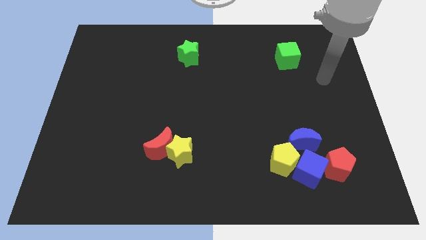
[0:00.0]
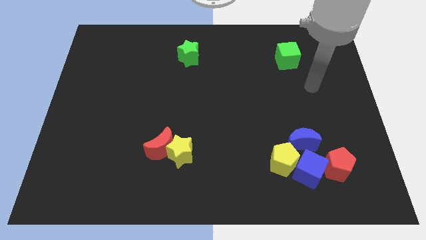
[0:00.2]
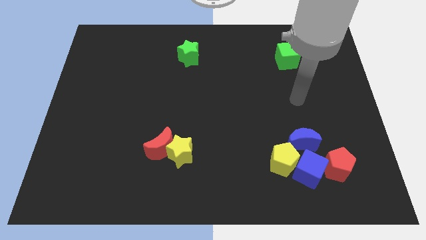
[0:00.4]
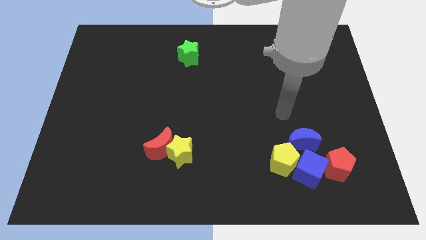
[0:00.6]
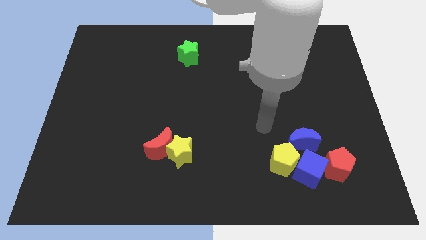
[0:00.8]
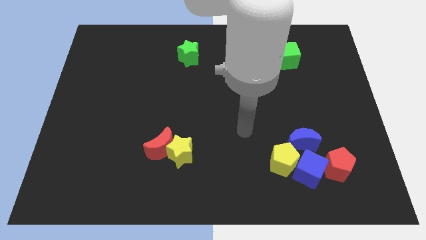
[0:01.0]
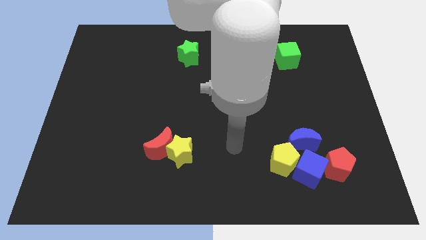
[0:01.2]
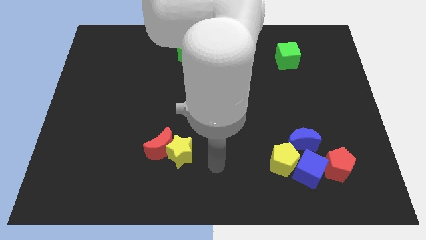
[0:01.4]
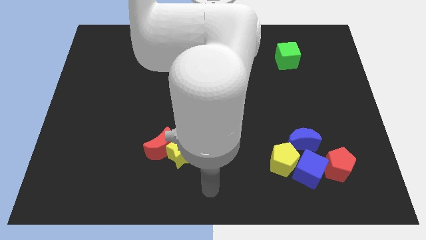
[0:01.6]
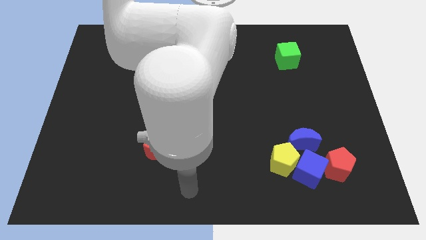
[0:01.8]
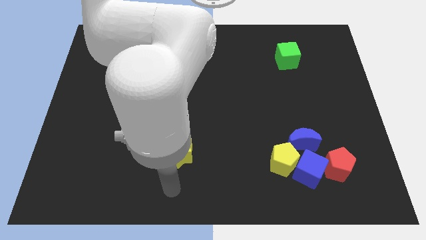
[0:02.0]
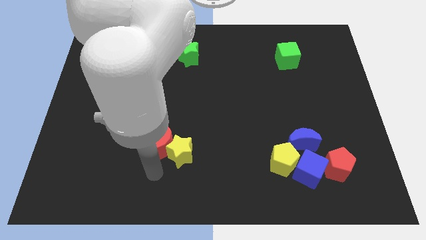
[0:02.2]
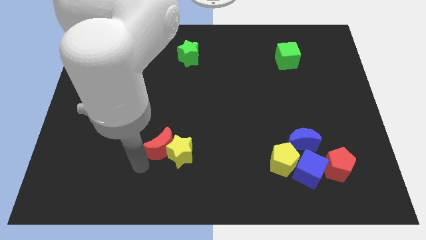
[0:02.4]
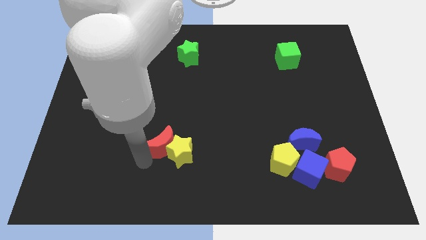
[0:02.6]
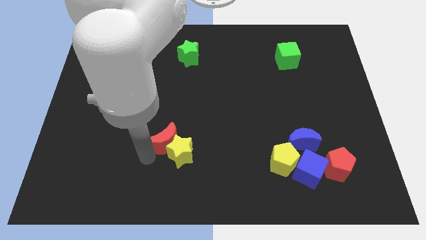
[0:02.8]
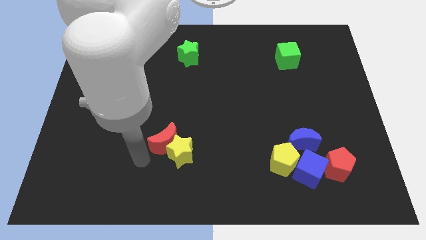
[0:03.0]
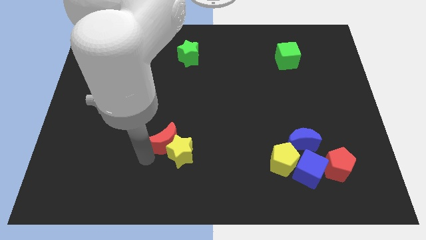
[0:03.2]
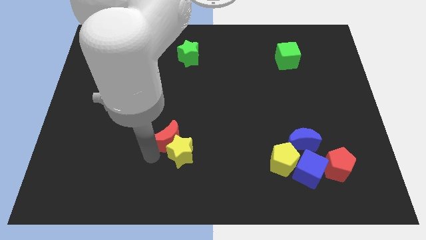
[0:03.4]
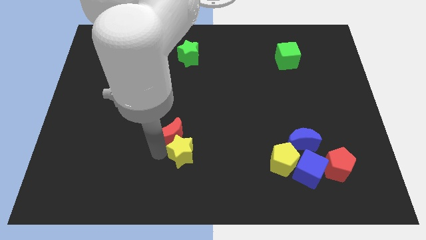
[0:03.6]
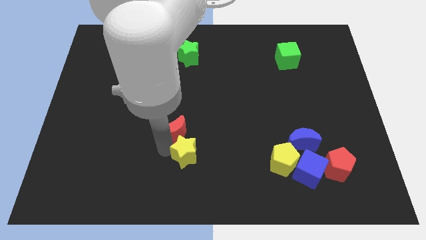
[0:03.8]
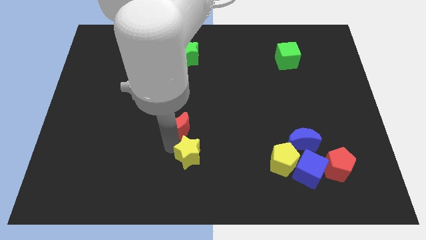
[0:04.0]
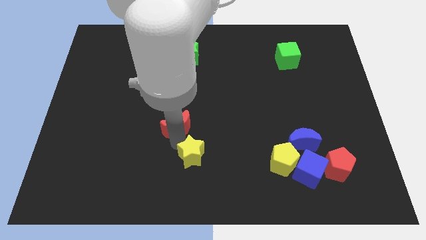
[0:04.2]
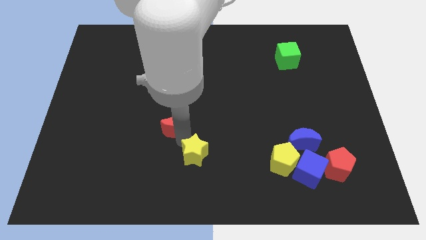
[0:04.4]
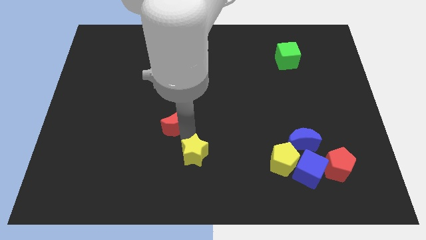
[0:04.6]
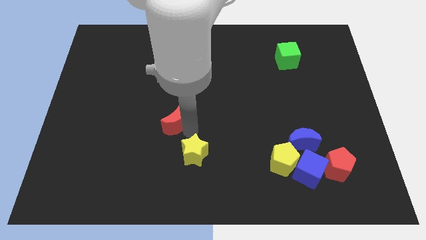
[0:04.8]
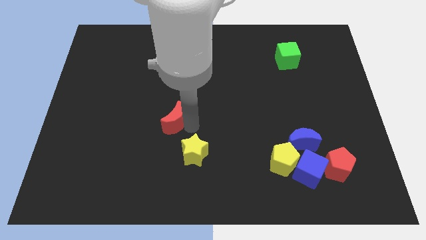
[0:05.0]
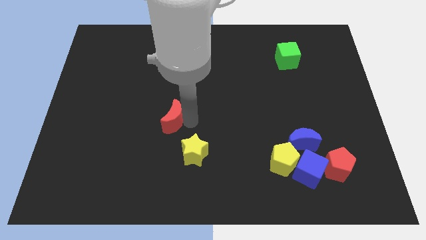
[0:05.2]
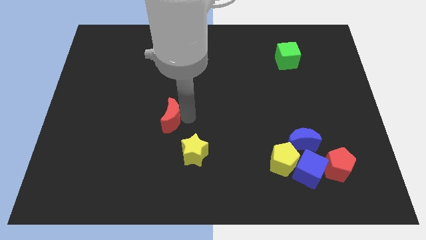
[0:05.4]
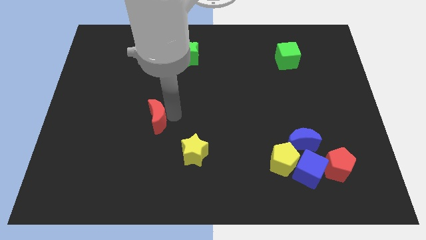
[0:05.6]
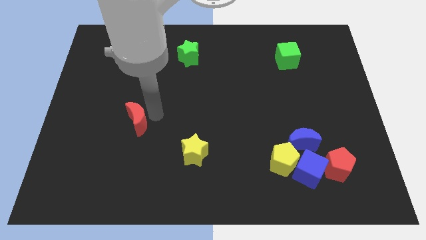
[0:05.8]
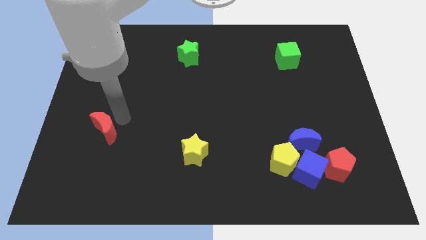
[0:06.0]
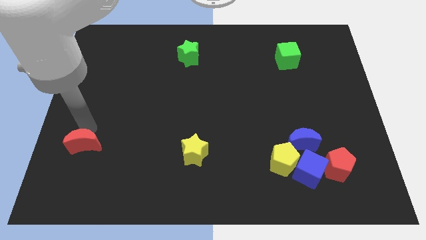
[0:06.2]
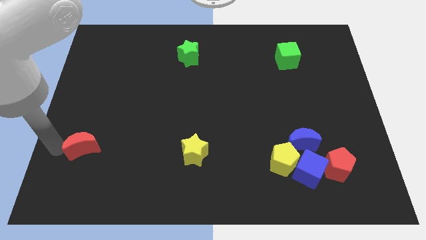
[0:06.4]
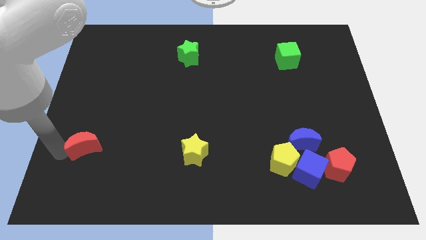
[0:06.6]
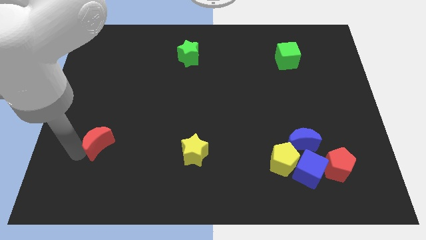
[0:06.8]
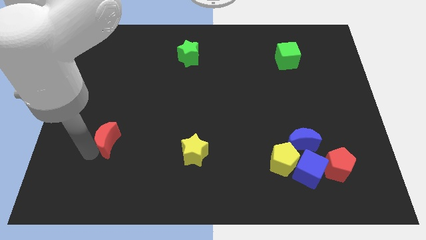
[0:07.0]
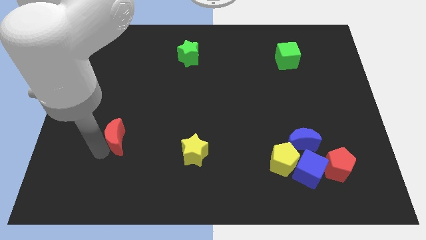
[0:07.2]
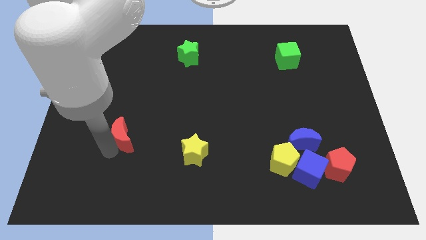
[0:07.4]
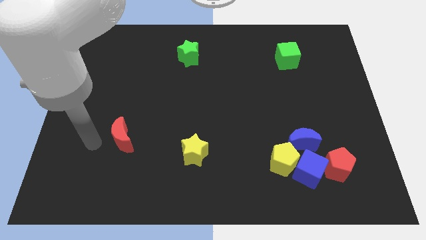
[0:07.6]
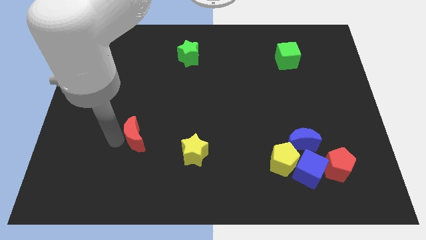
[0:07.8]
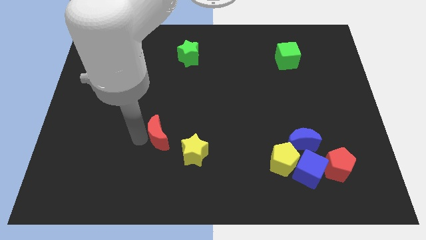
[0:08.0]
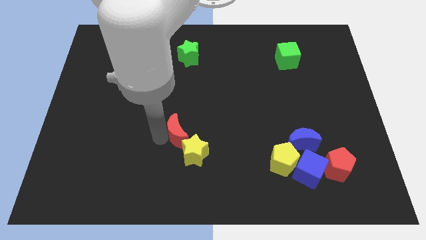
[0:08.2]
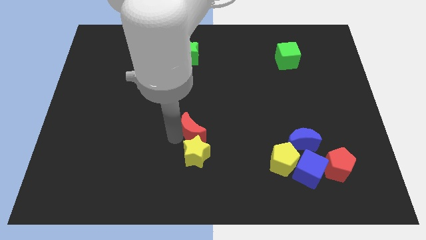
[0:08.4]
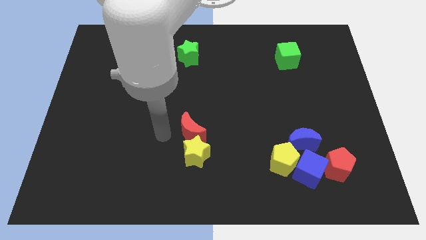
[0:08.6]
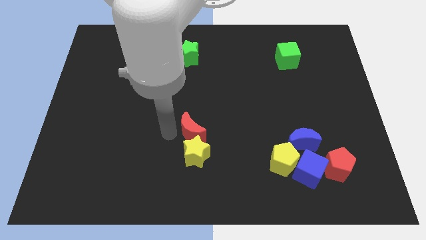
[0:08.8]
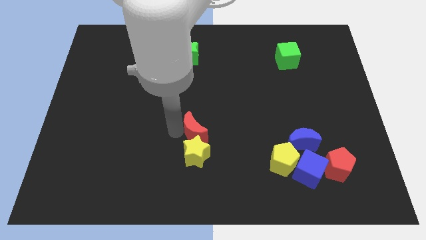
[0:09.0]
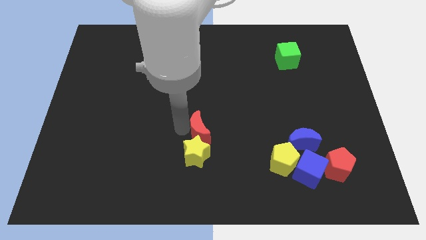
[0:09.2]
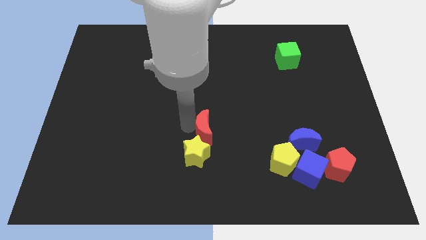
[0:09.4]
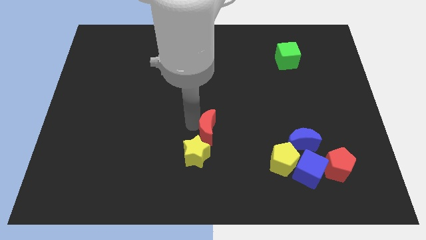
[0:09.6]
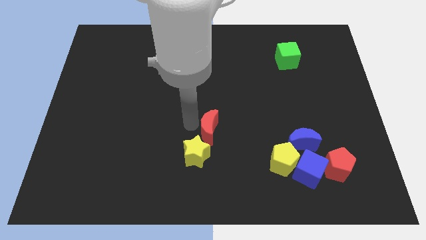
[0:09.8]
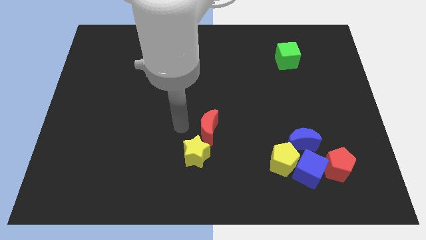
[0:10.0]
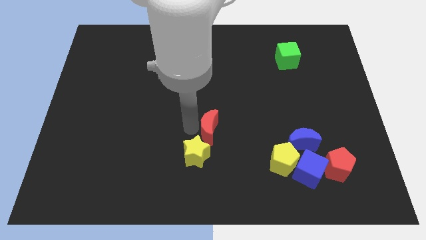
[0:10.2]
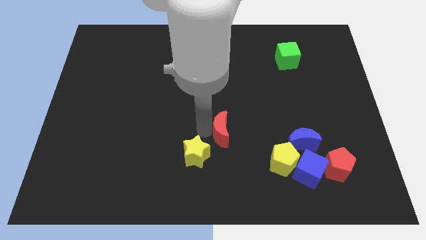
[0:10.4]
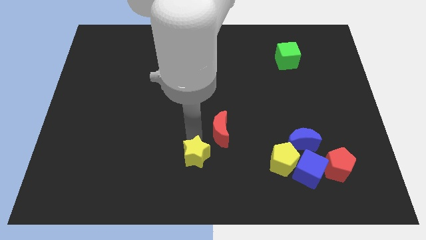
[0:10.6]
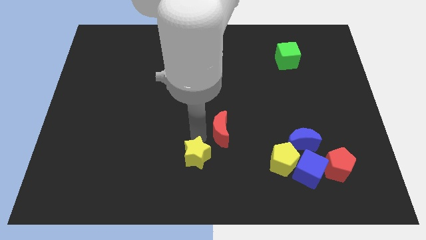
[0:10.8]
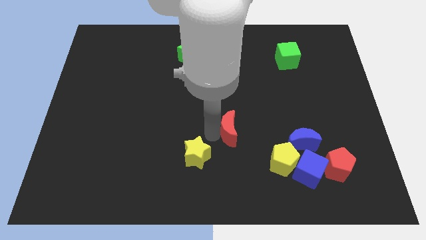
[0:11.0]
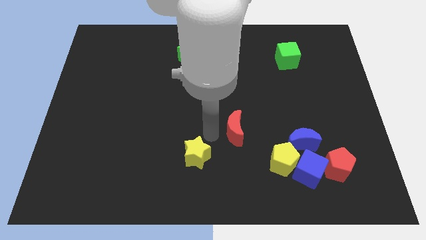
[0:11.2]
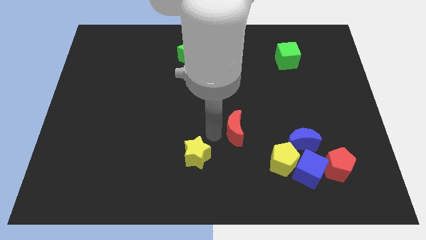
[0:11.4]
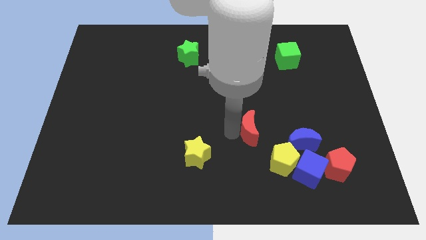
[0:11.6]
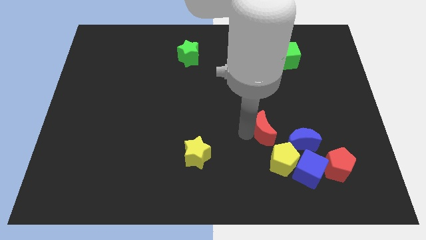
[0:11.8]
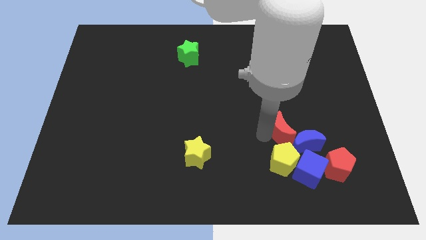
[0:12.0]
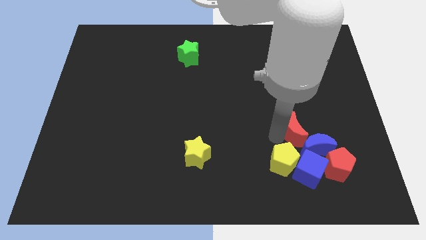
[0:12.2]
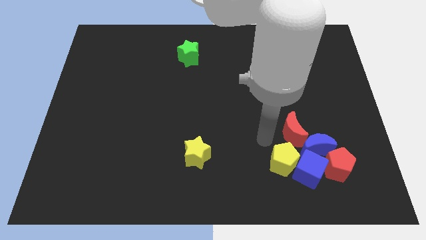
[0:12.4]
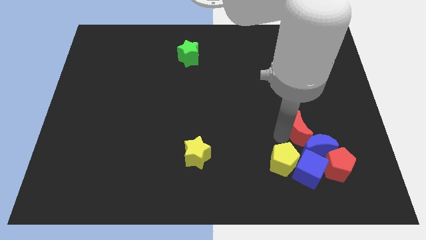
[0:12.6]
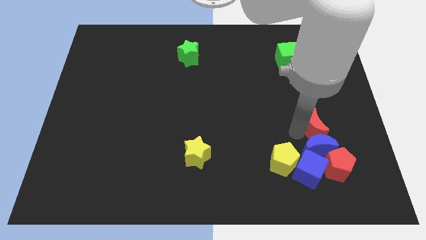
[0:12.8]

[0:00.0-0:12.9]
slide the red moon above the red pentagon

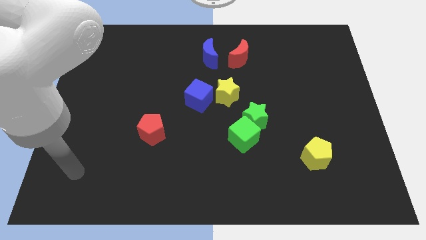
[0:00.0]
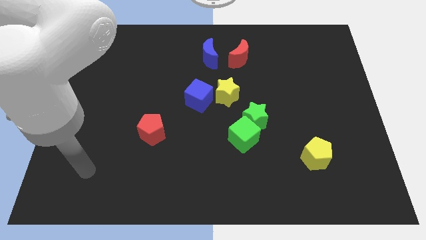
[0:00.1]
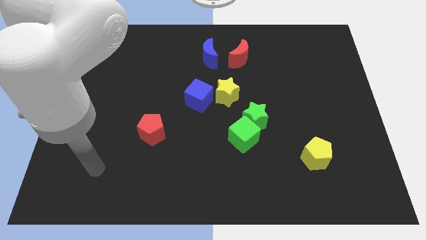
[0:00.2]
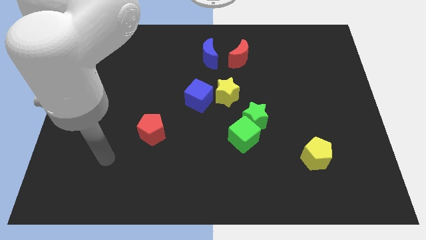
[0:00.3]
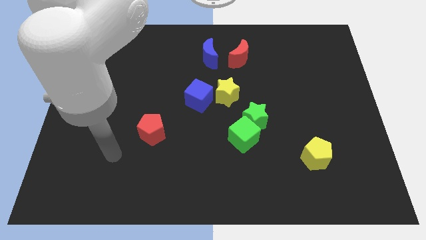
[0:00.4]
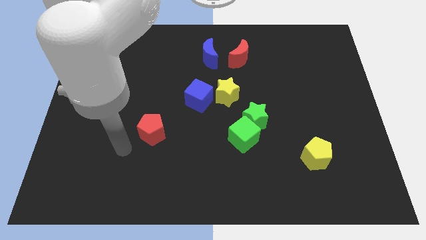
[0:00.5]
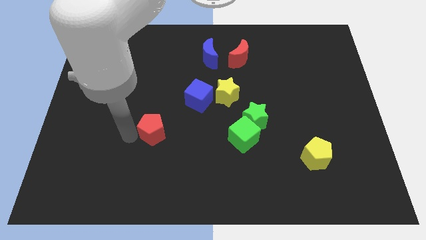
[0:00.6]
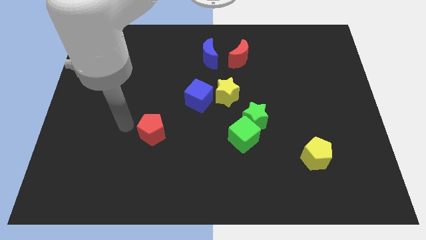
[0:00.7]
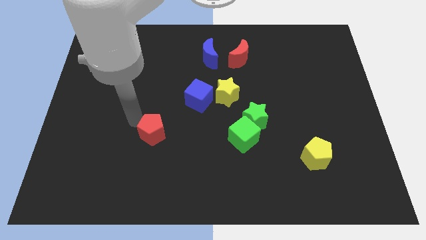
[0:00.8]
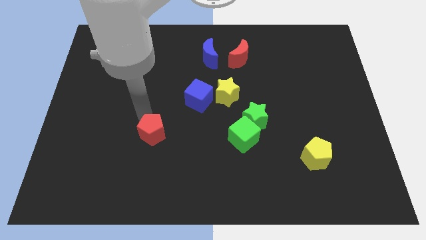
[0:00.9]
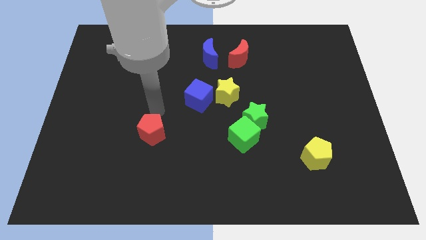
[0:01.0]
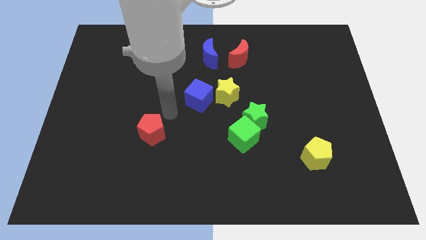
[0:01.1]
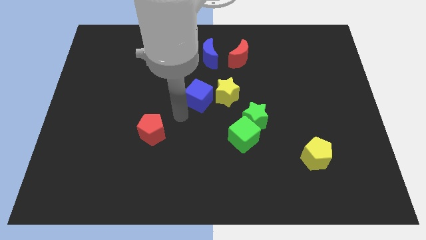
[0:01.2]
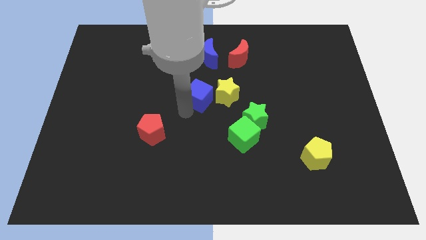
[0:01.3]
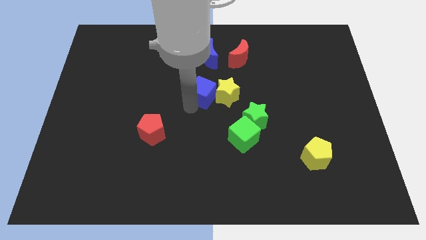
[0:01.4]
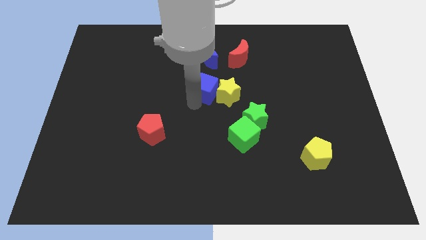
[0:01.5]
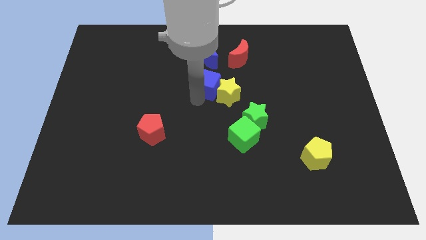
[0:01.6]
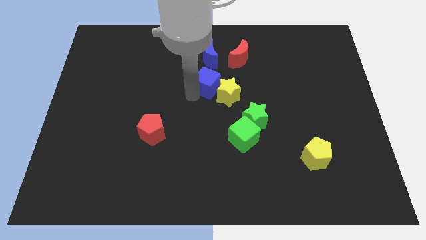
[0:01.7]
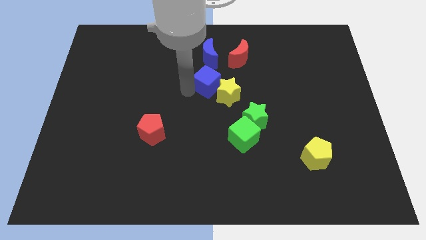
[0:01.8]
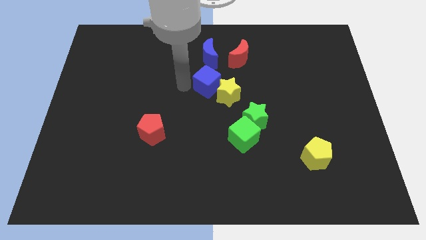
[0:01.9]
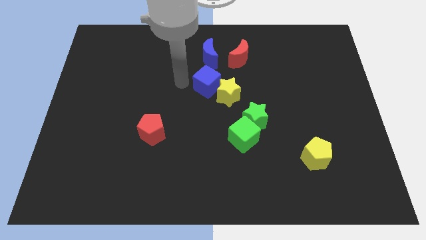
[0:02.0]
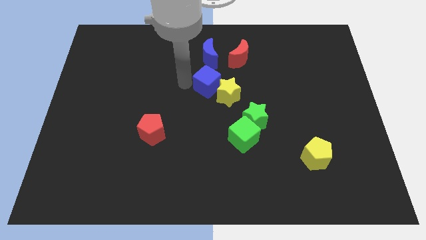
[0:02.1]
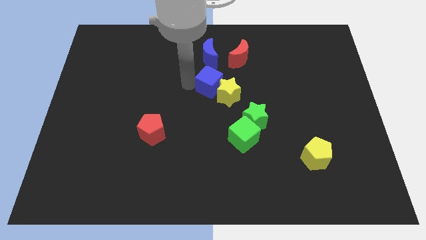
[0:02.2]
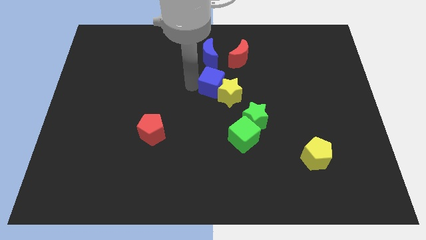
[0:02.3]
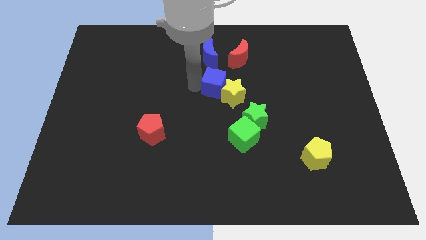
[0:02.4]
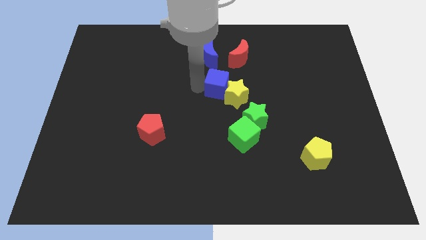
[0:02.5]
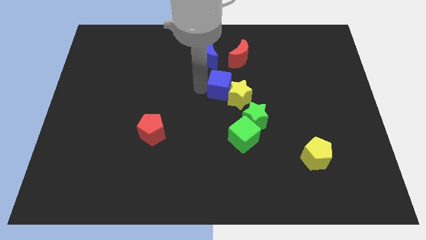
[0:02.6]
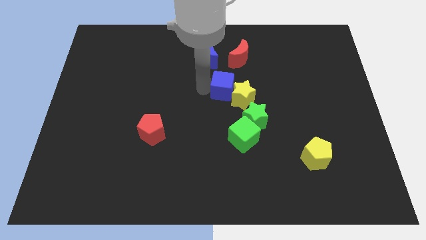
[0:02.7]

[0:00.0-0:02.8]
slide the blue cube to the bottom of the red moon
